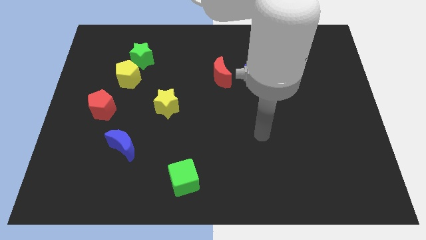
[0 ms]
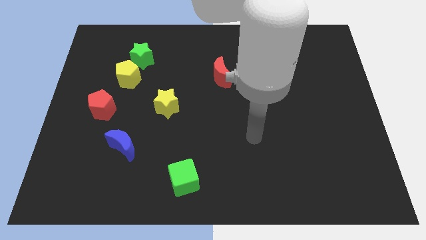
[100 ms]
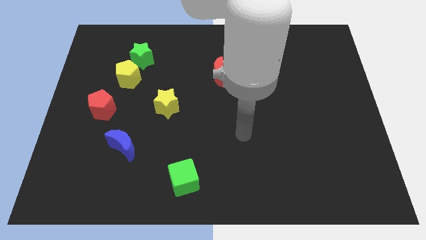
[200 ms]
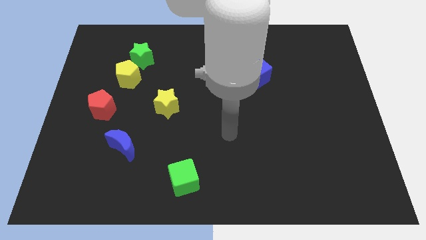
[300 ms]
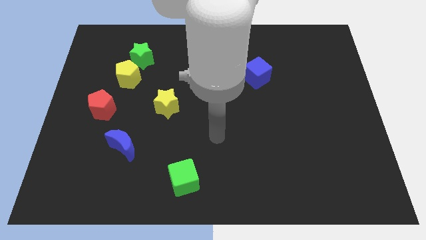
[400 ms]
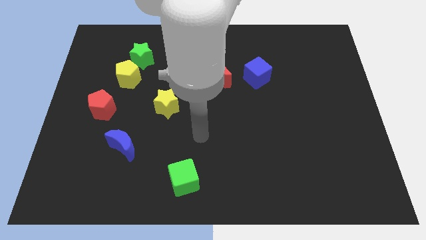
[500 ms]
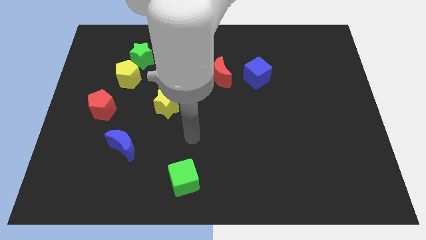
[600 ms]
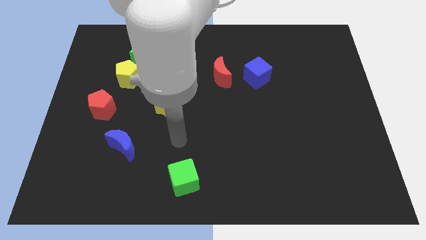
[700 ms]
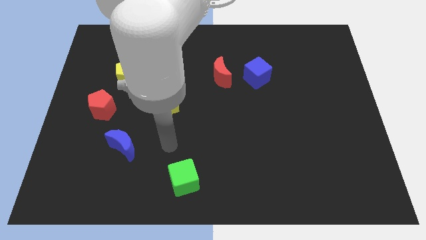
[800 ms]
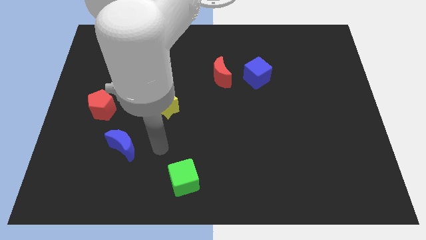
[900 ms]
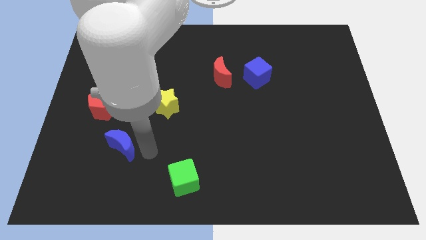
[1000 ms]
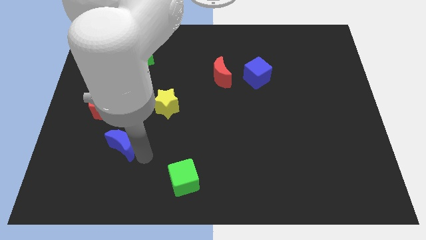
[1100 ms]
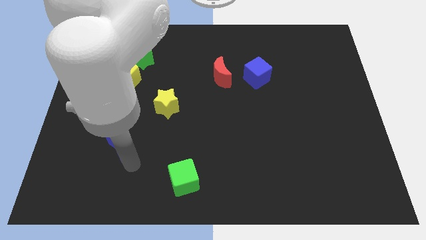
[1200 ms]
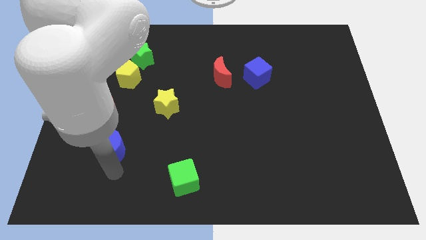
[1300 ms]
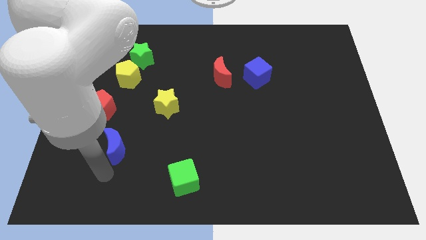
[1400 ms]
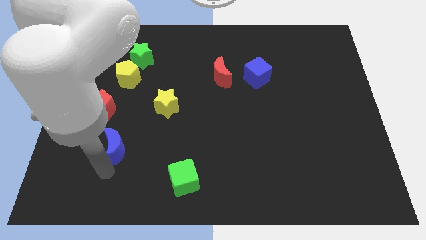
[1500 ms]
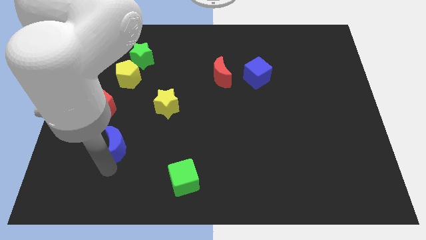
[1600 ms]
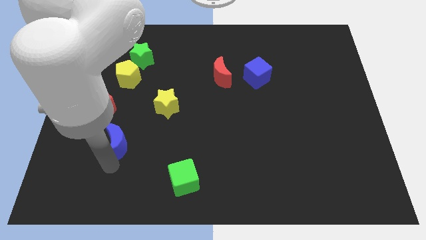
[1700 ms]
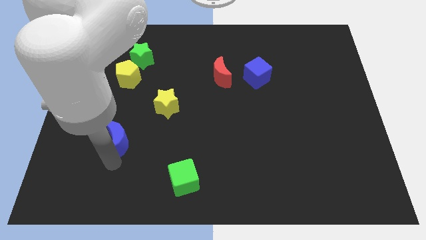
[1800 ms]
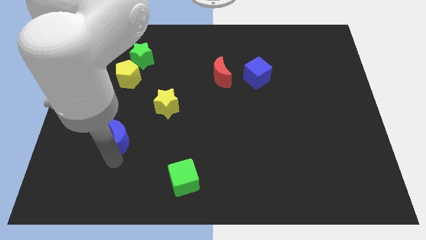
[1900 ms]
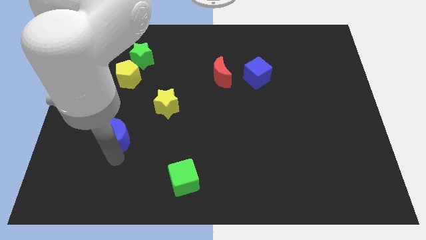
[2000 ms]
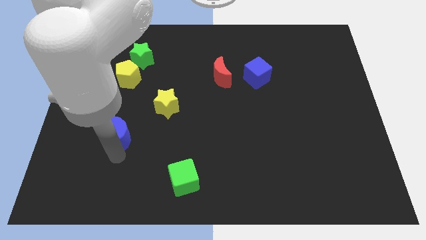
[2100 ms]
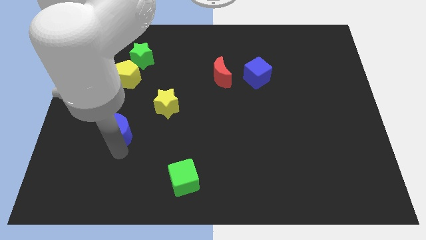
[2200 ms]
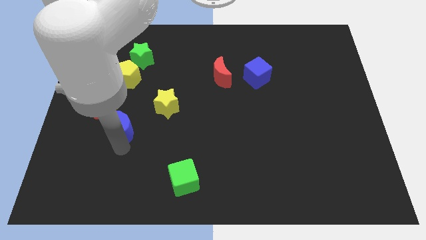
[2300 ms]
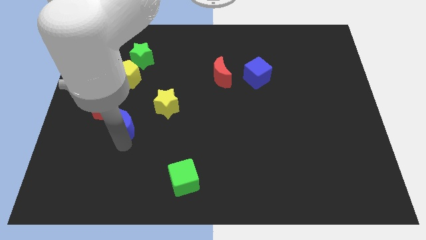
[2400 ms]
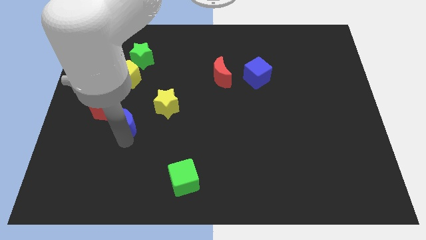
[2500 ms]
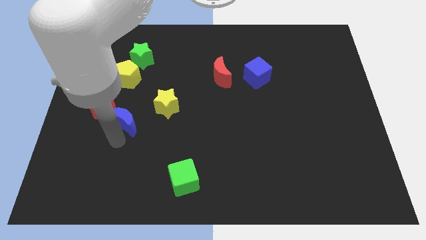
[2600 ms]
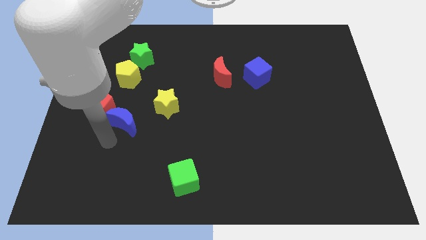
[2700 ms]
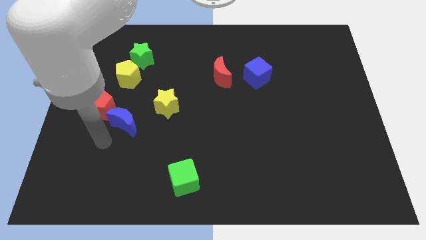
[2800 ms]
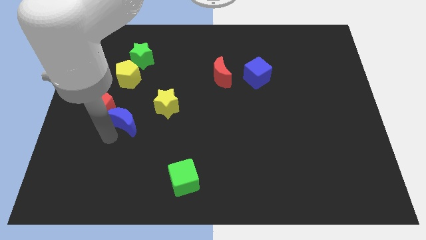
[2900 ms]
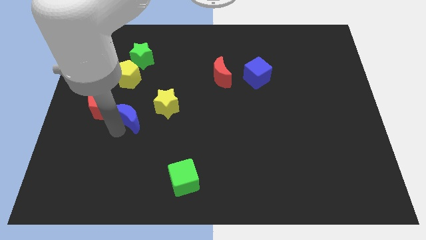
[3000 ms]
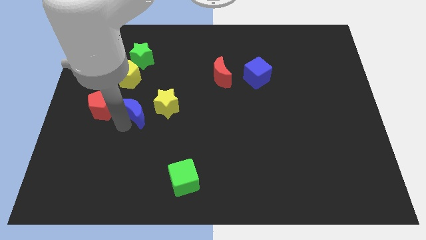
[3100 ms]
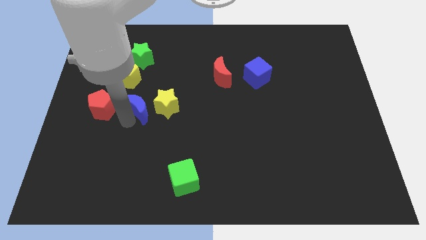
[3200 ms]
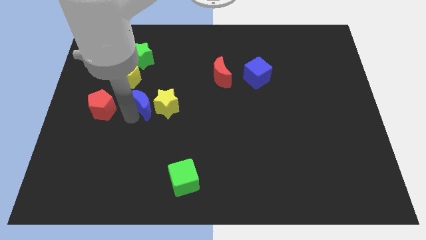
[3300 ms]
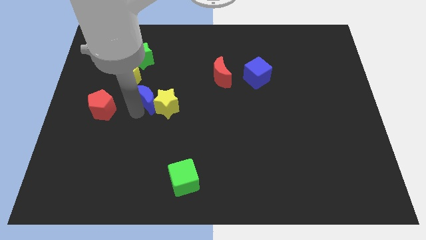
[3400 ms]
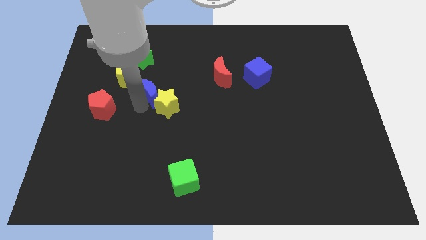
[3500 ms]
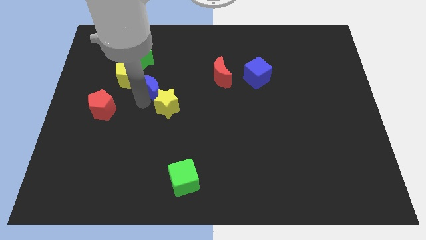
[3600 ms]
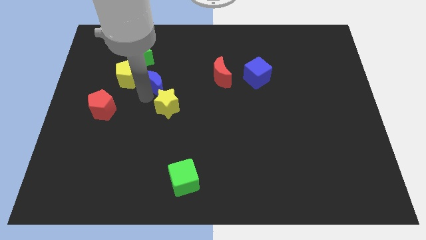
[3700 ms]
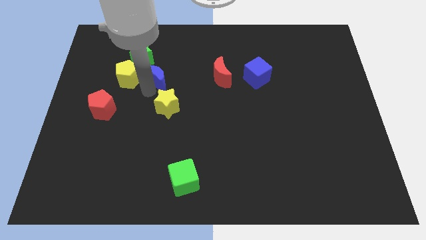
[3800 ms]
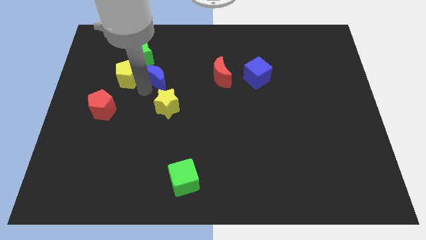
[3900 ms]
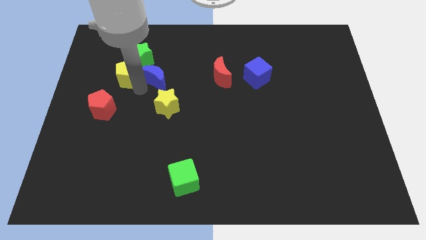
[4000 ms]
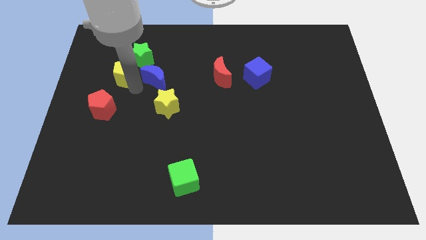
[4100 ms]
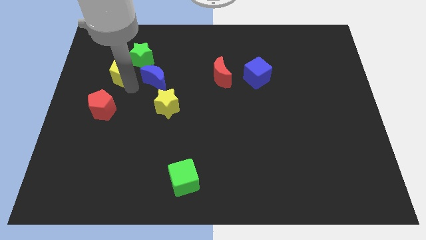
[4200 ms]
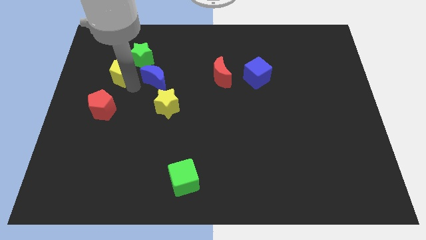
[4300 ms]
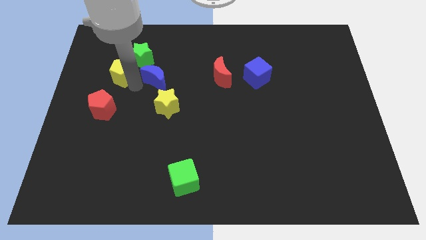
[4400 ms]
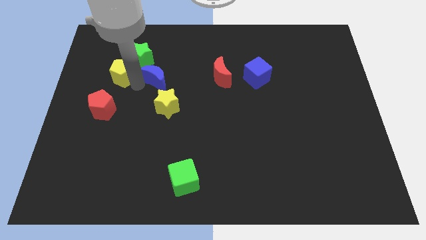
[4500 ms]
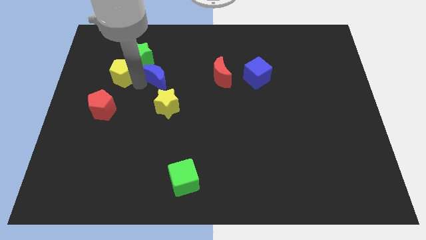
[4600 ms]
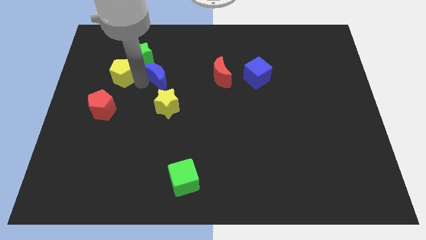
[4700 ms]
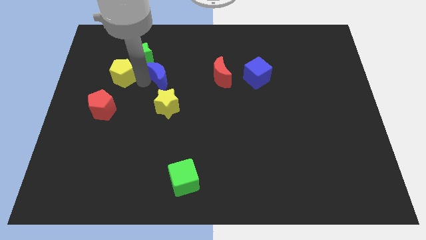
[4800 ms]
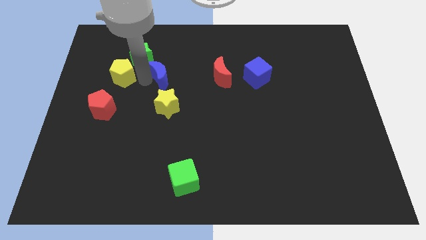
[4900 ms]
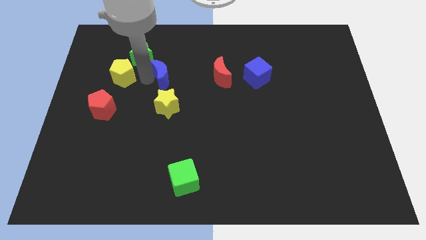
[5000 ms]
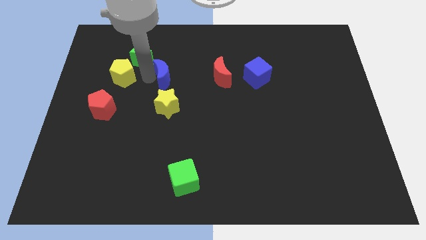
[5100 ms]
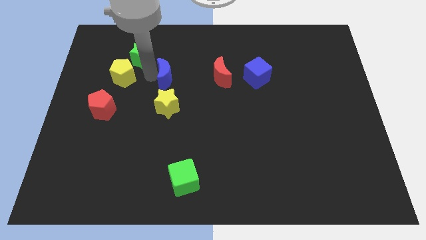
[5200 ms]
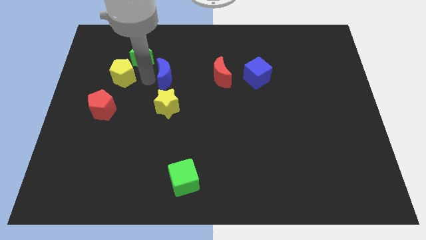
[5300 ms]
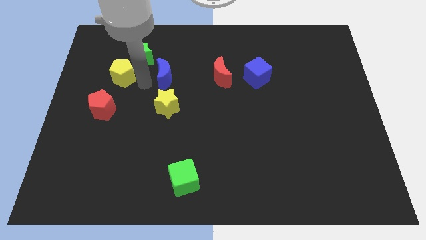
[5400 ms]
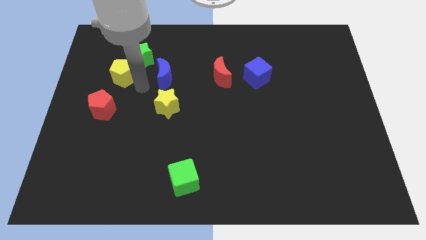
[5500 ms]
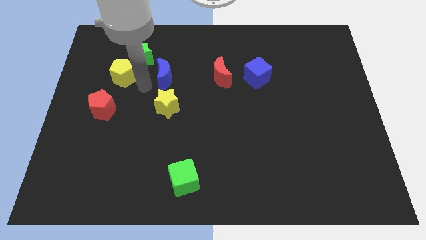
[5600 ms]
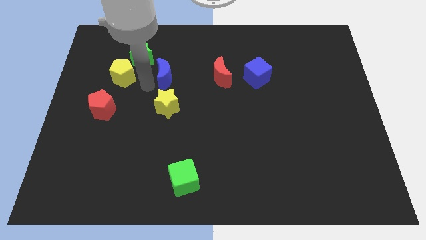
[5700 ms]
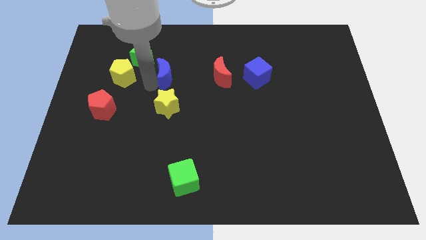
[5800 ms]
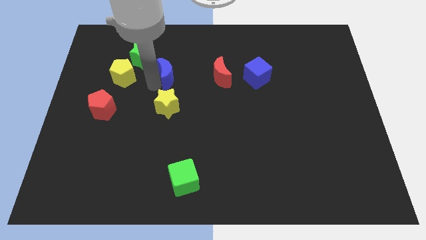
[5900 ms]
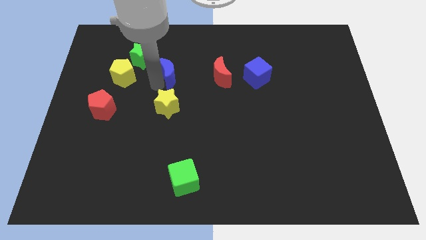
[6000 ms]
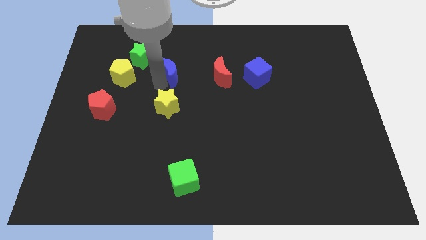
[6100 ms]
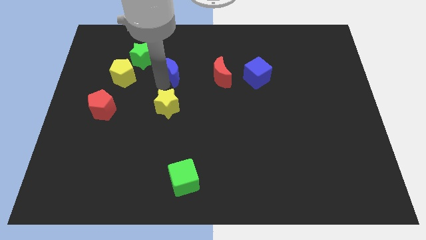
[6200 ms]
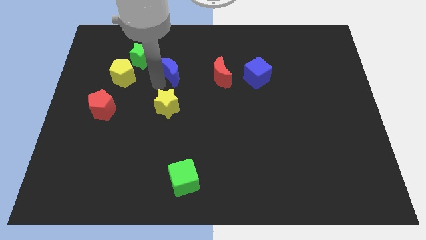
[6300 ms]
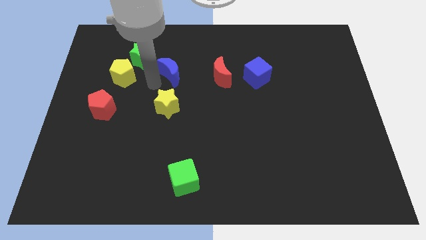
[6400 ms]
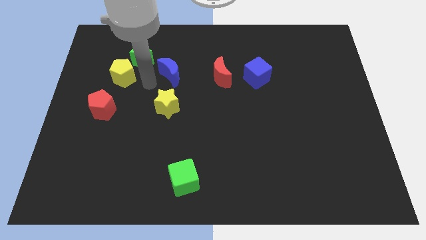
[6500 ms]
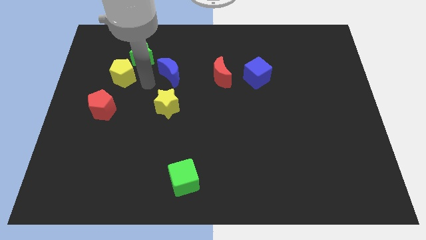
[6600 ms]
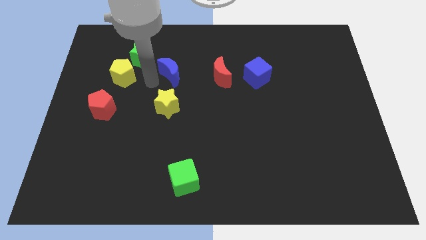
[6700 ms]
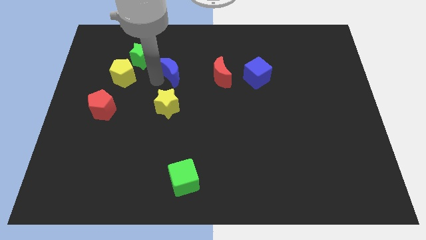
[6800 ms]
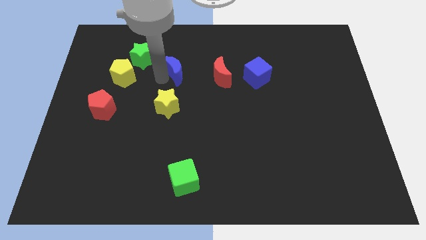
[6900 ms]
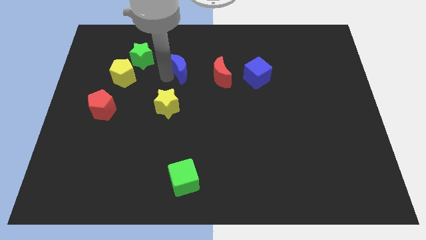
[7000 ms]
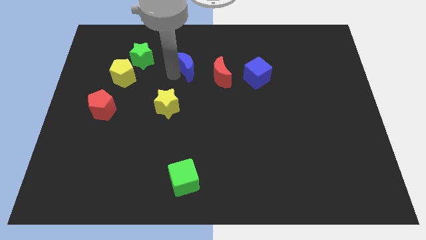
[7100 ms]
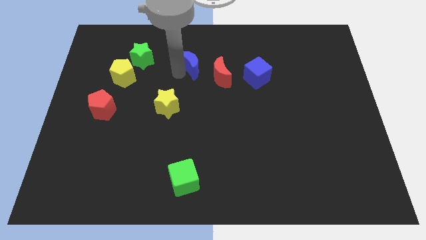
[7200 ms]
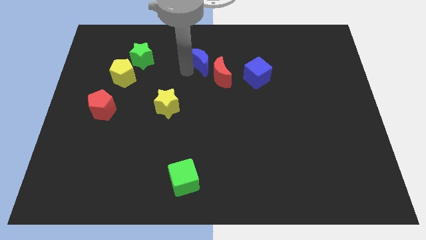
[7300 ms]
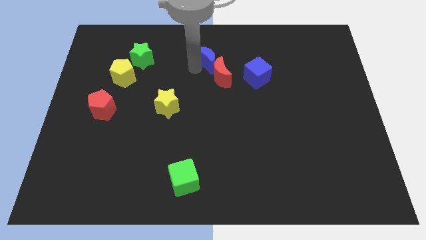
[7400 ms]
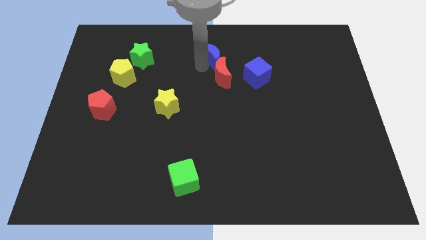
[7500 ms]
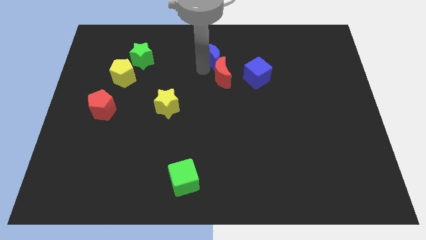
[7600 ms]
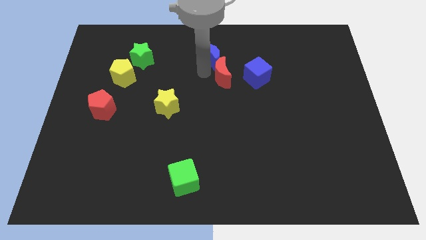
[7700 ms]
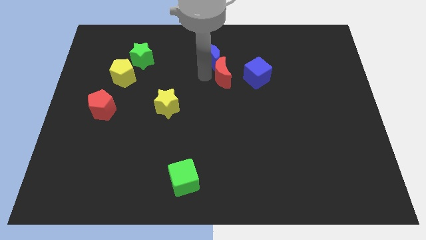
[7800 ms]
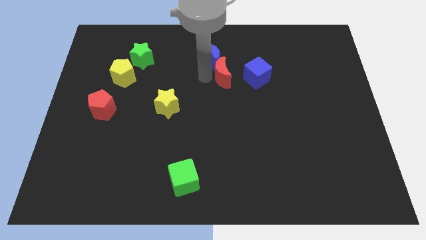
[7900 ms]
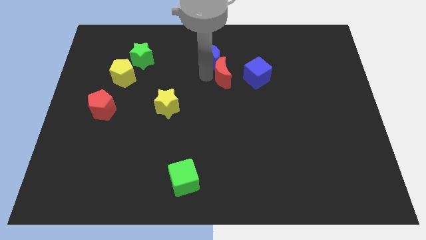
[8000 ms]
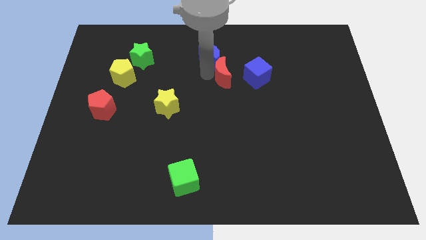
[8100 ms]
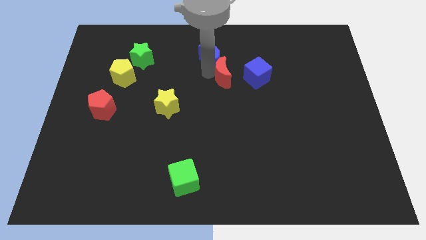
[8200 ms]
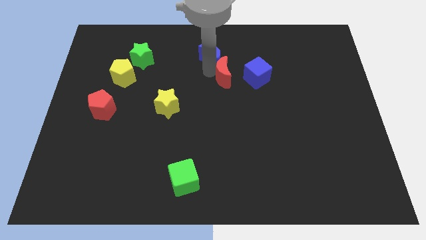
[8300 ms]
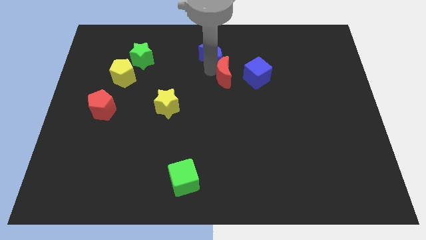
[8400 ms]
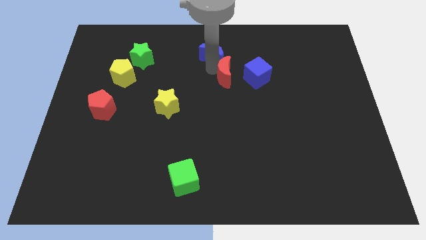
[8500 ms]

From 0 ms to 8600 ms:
slide the blue moon to the top
